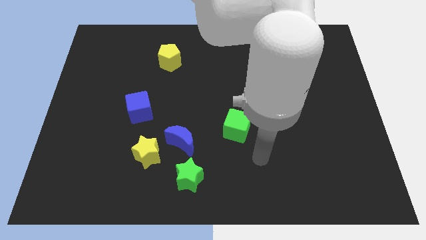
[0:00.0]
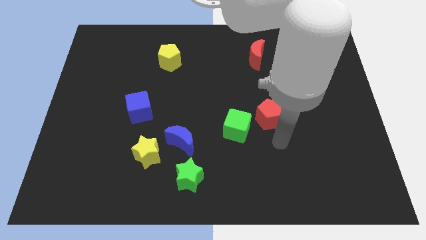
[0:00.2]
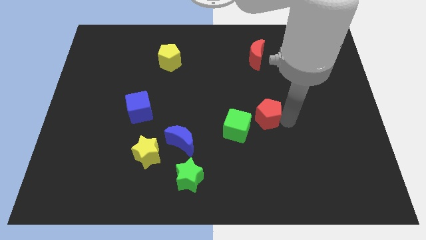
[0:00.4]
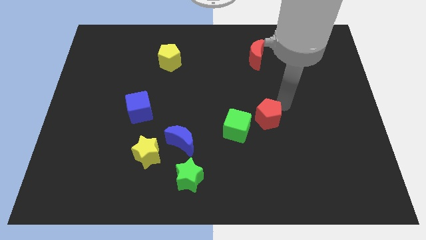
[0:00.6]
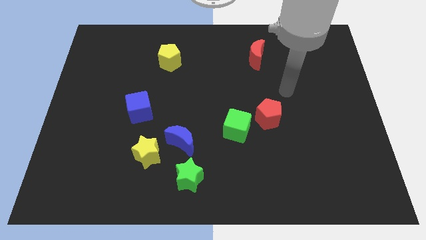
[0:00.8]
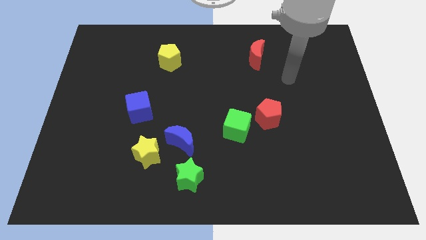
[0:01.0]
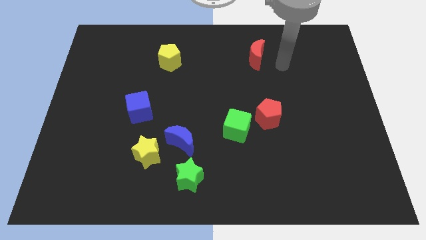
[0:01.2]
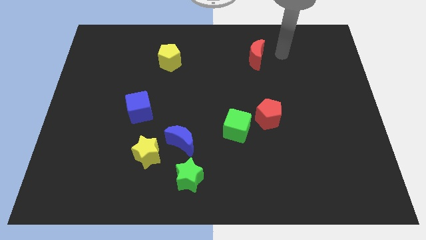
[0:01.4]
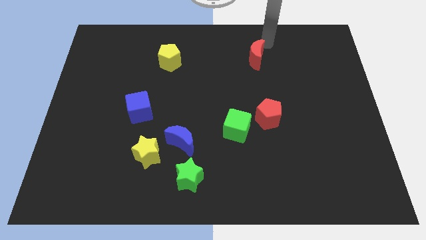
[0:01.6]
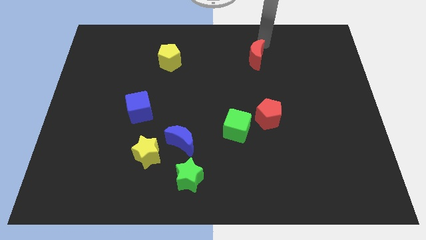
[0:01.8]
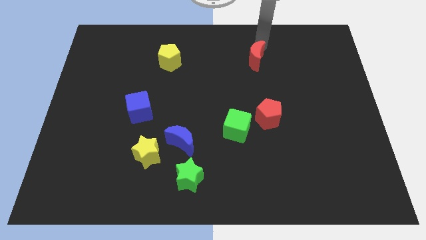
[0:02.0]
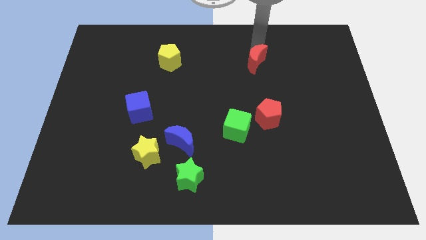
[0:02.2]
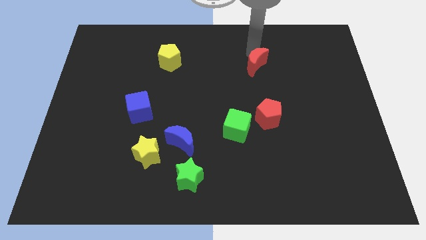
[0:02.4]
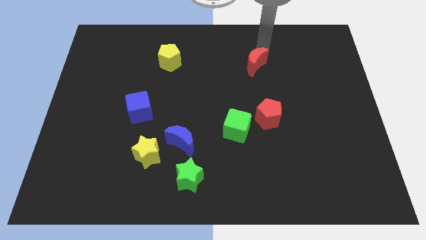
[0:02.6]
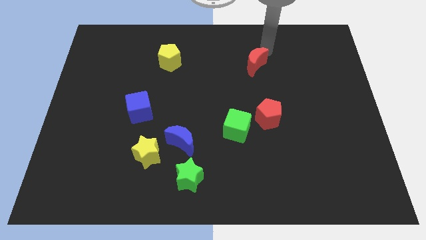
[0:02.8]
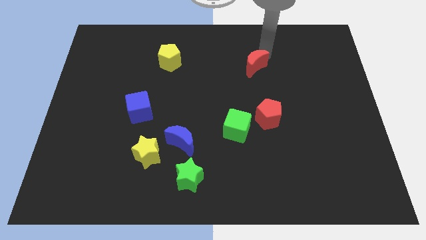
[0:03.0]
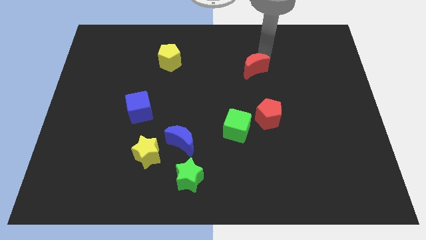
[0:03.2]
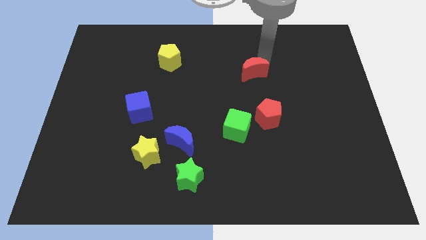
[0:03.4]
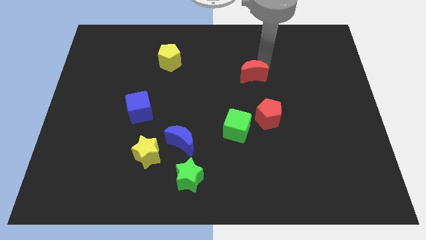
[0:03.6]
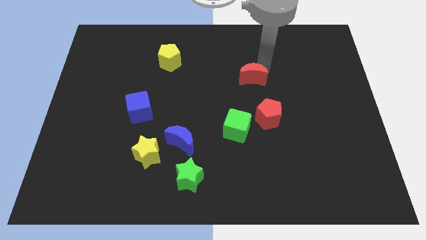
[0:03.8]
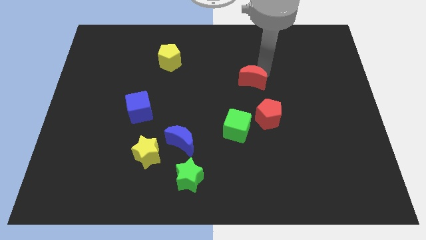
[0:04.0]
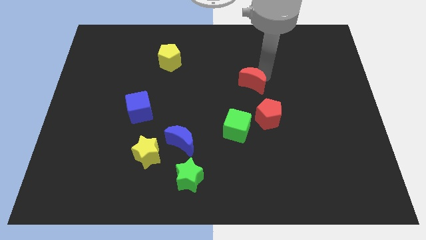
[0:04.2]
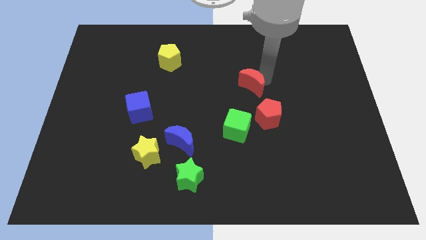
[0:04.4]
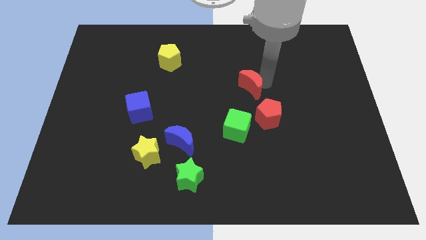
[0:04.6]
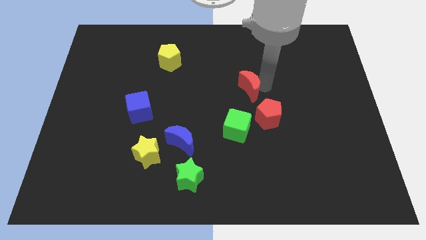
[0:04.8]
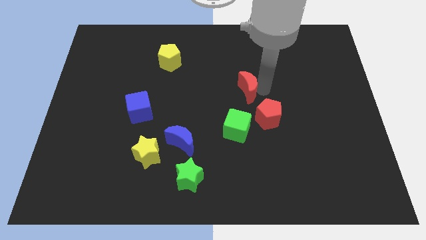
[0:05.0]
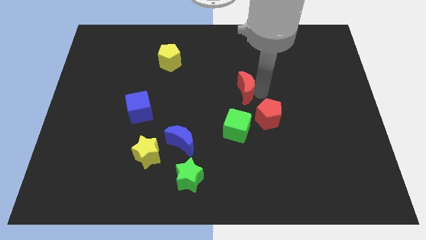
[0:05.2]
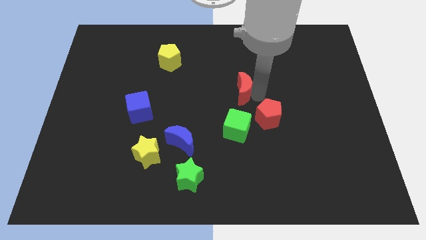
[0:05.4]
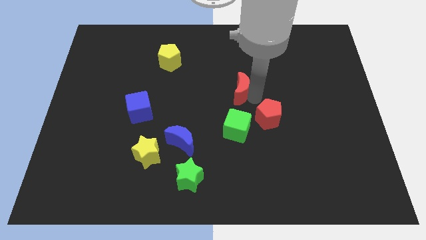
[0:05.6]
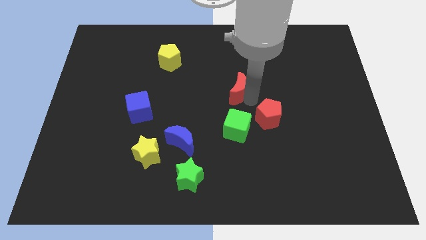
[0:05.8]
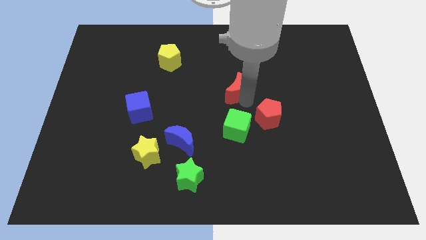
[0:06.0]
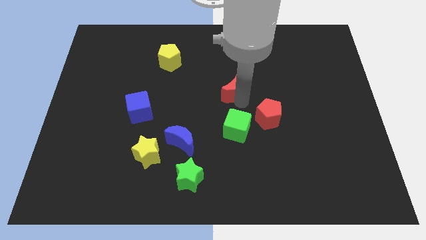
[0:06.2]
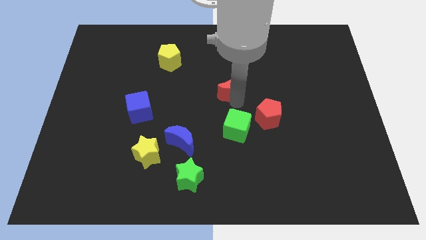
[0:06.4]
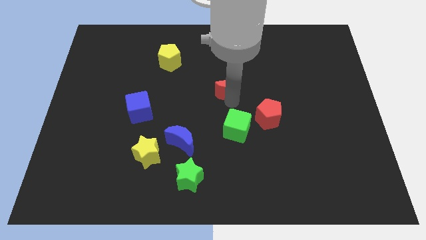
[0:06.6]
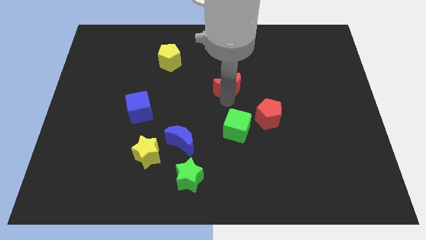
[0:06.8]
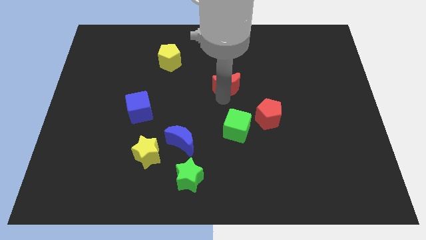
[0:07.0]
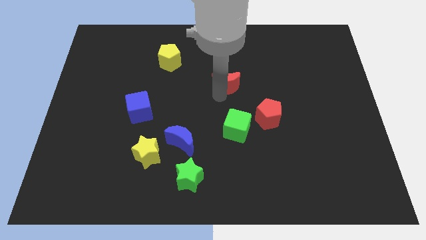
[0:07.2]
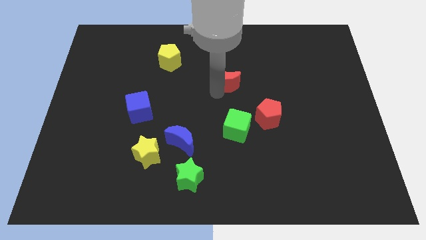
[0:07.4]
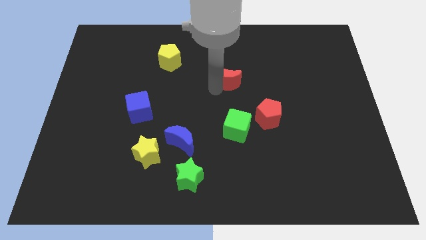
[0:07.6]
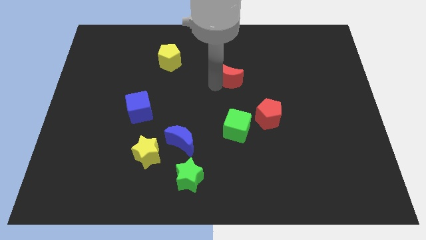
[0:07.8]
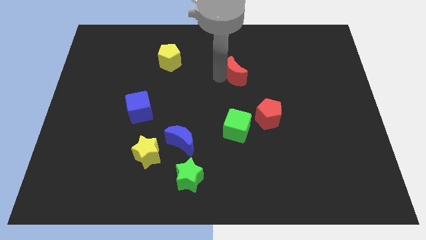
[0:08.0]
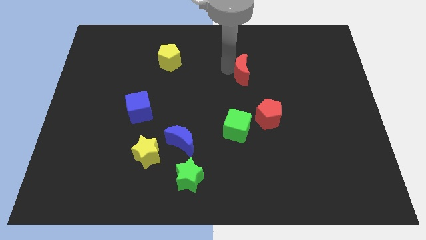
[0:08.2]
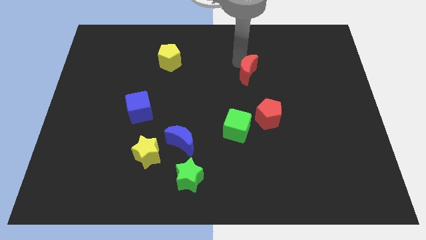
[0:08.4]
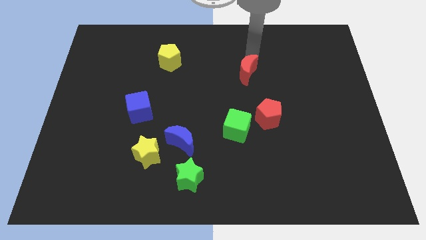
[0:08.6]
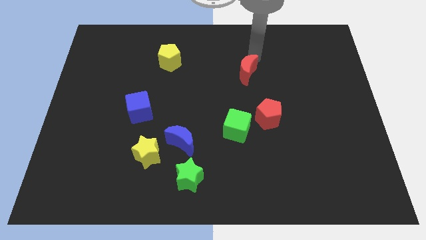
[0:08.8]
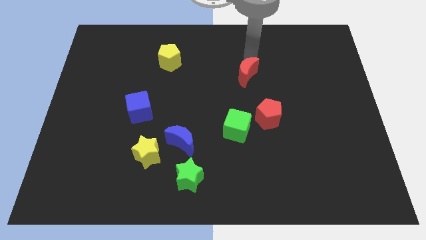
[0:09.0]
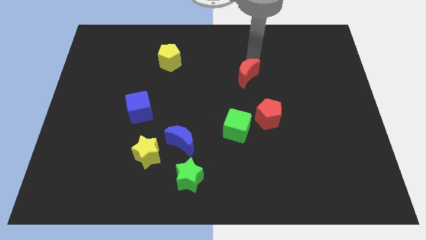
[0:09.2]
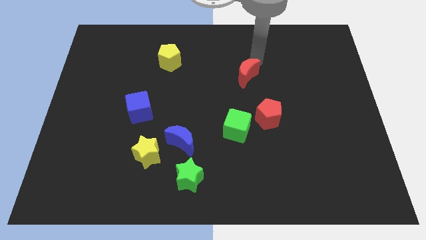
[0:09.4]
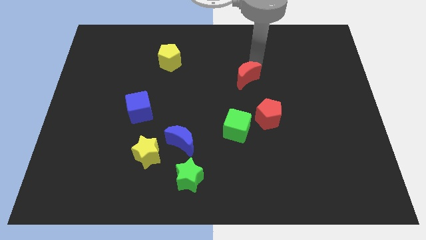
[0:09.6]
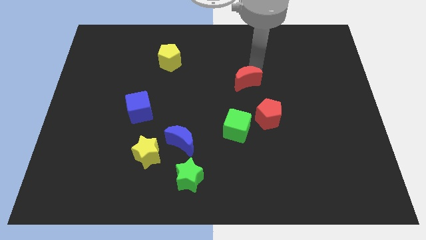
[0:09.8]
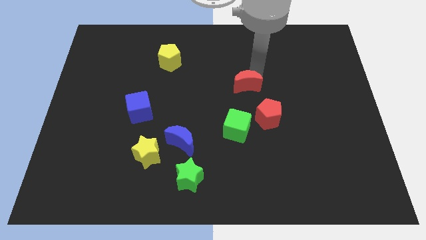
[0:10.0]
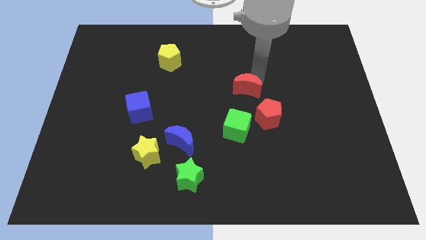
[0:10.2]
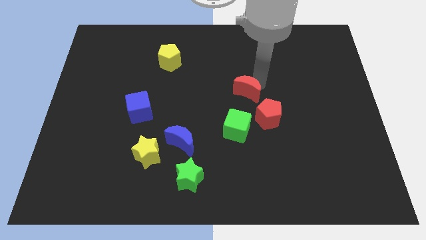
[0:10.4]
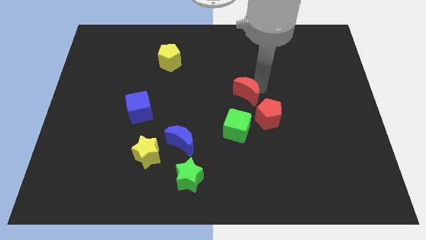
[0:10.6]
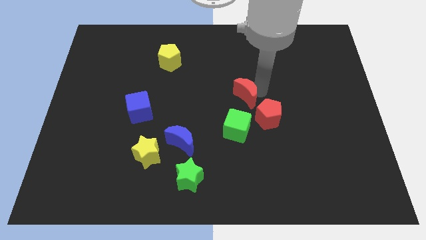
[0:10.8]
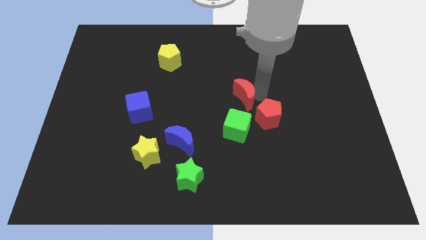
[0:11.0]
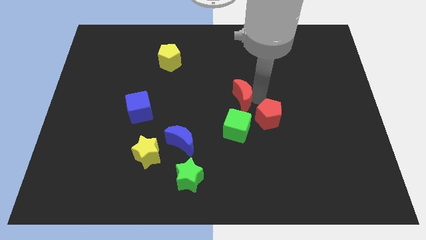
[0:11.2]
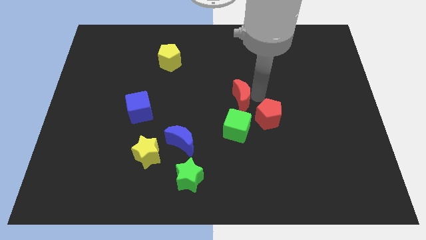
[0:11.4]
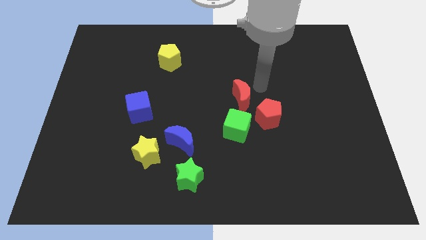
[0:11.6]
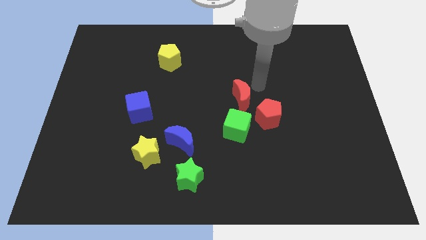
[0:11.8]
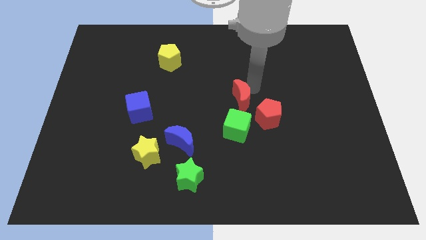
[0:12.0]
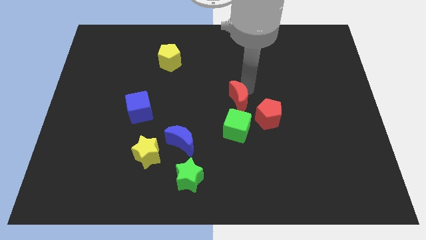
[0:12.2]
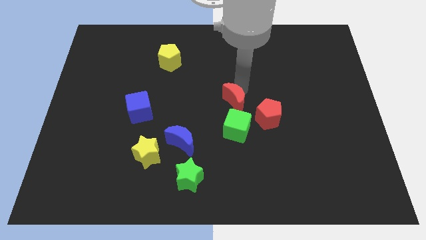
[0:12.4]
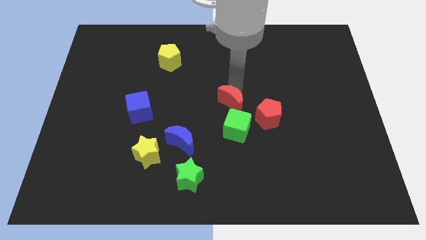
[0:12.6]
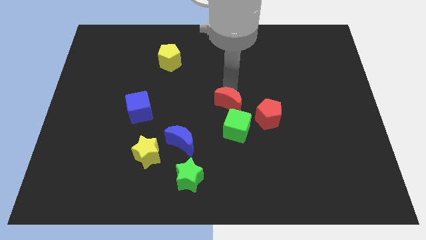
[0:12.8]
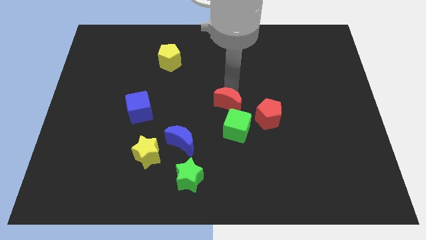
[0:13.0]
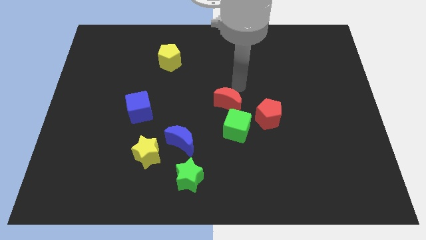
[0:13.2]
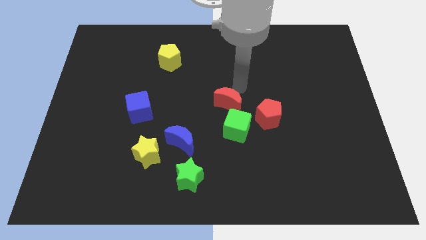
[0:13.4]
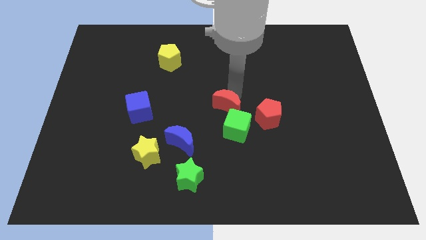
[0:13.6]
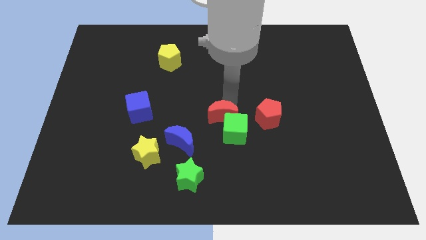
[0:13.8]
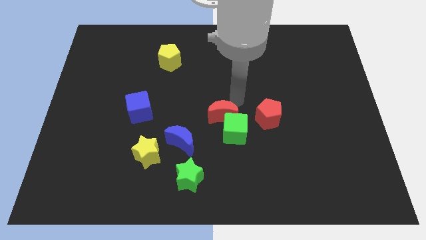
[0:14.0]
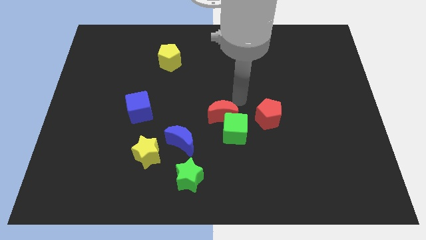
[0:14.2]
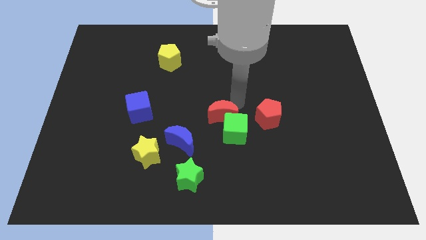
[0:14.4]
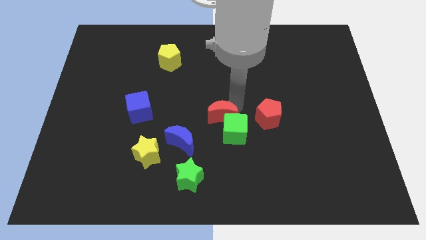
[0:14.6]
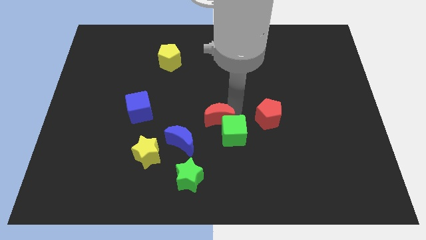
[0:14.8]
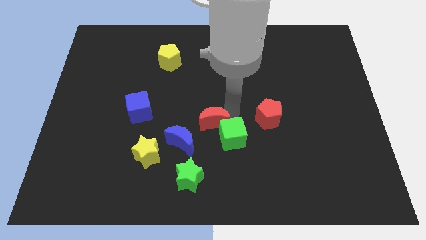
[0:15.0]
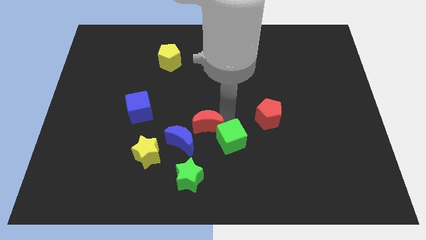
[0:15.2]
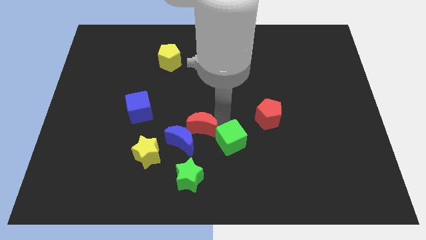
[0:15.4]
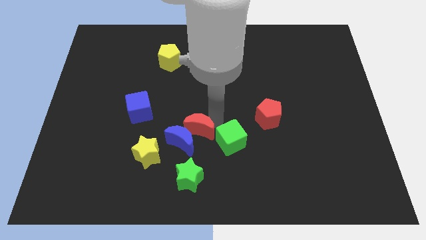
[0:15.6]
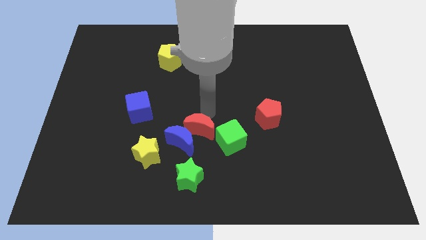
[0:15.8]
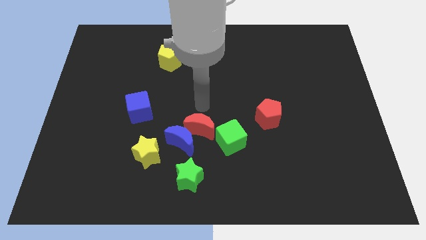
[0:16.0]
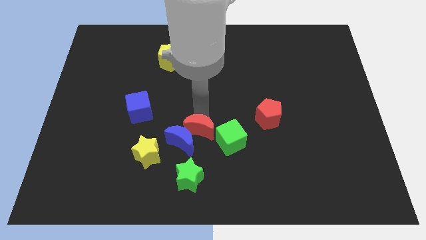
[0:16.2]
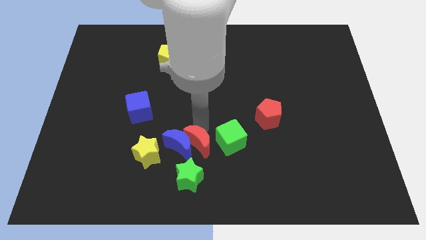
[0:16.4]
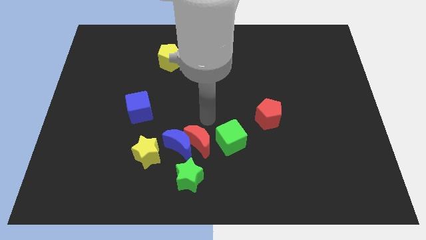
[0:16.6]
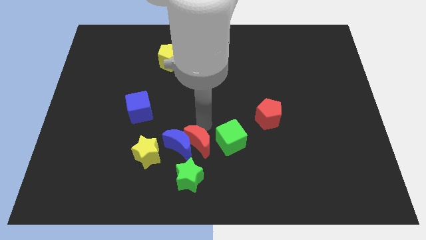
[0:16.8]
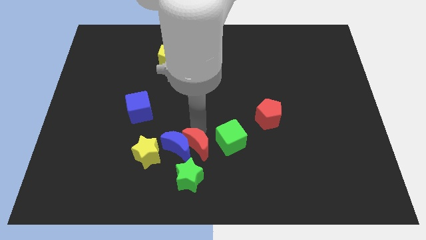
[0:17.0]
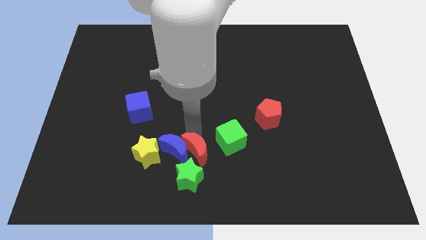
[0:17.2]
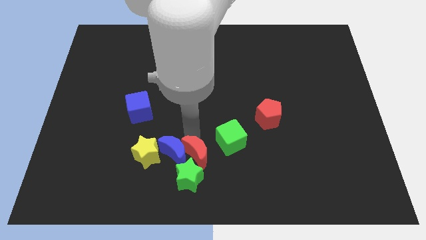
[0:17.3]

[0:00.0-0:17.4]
push the red moon towards the green star
